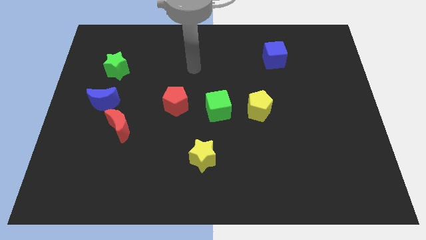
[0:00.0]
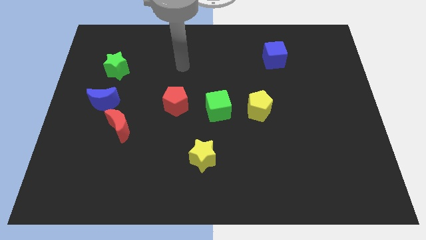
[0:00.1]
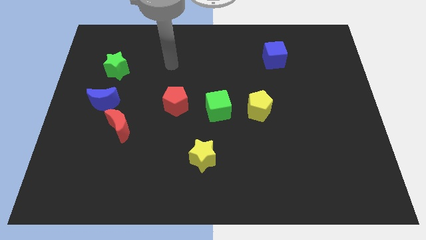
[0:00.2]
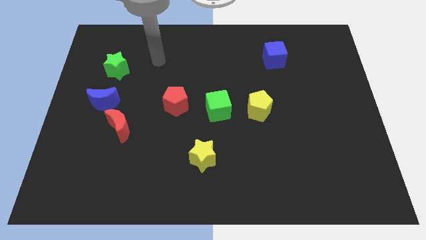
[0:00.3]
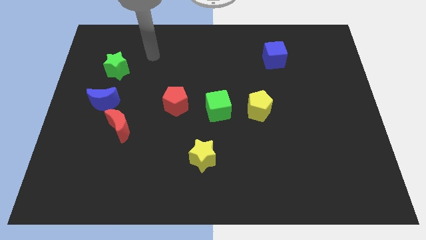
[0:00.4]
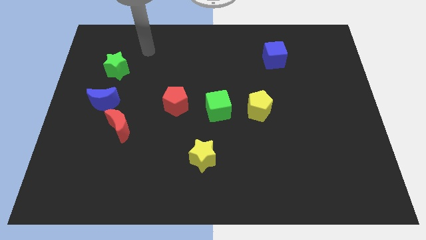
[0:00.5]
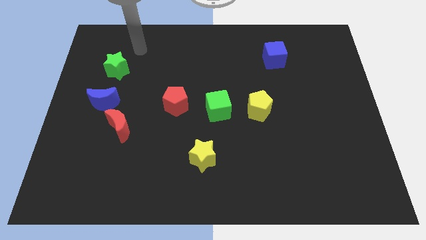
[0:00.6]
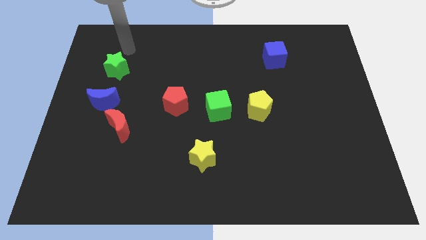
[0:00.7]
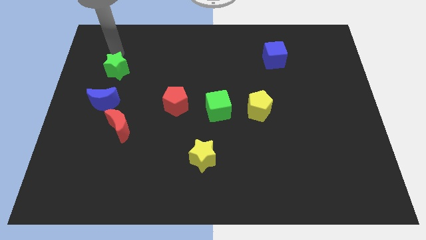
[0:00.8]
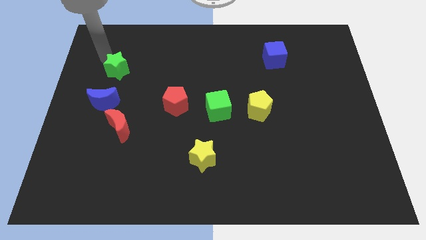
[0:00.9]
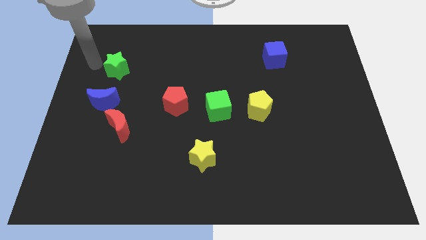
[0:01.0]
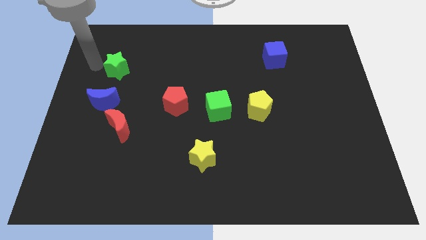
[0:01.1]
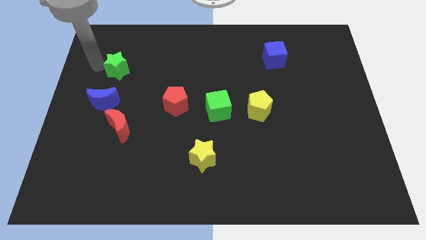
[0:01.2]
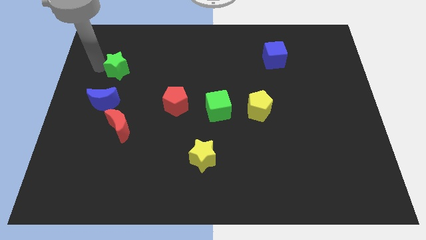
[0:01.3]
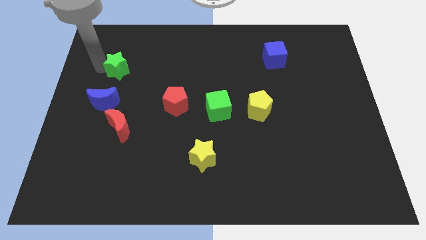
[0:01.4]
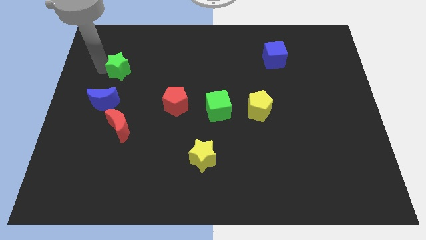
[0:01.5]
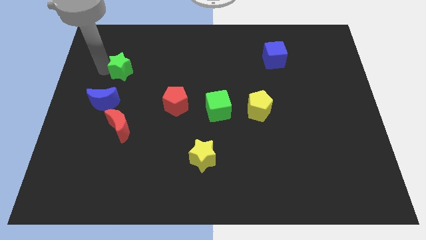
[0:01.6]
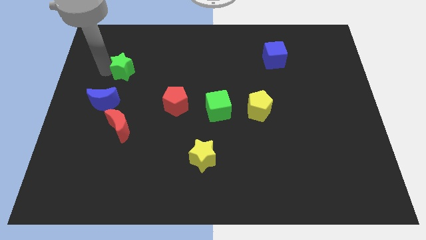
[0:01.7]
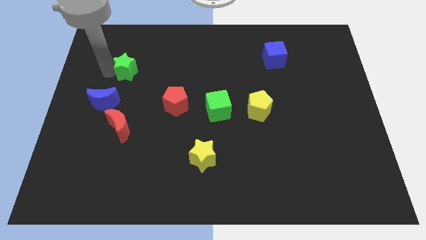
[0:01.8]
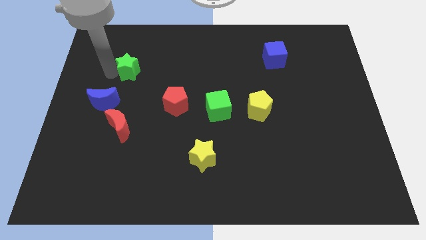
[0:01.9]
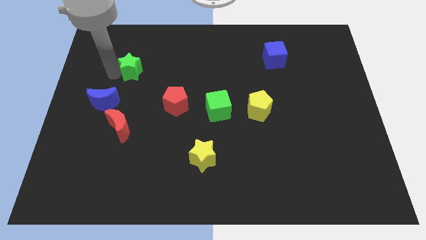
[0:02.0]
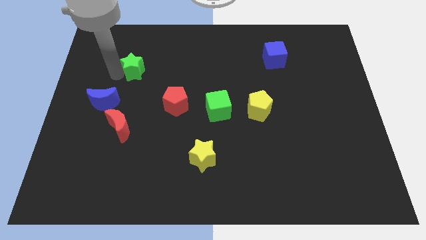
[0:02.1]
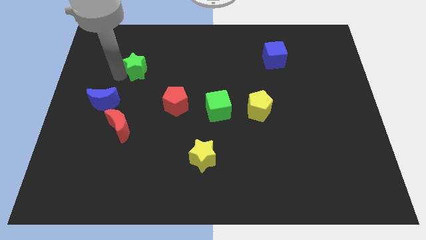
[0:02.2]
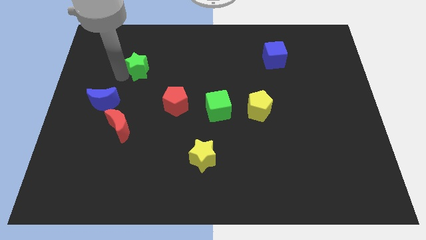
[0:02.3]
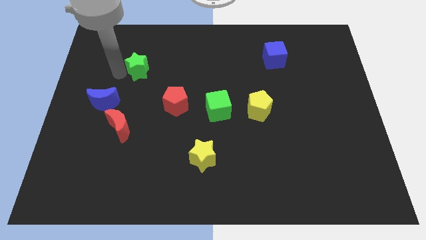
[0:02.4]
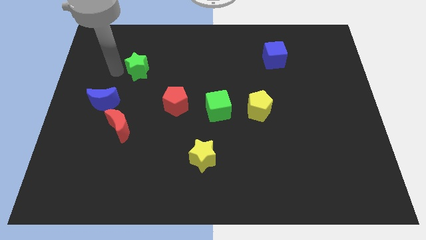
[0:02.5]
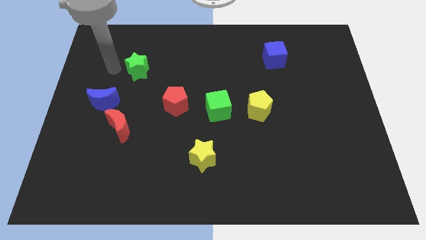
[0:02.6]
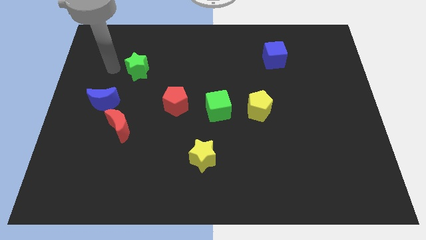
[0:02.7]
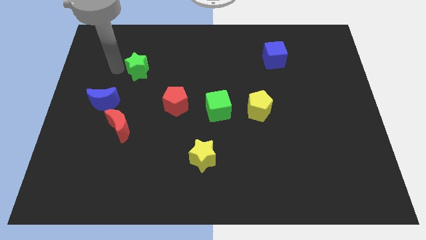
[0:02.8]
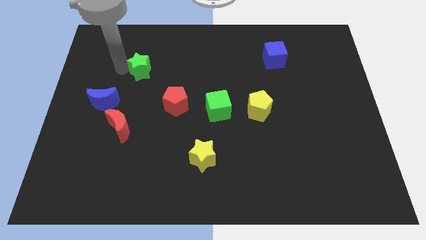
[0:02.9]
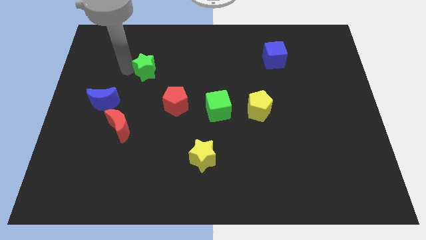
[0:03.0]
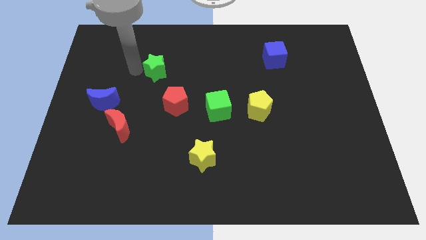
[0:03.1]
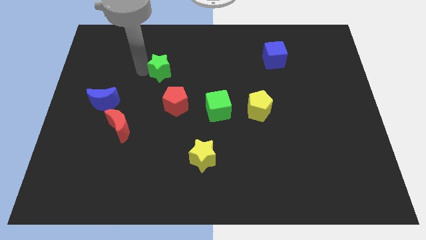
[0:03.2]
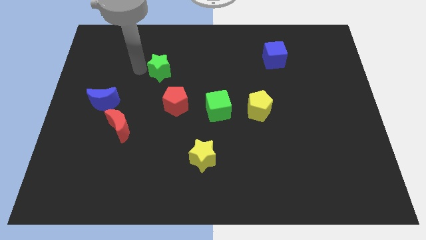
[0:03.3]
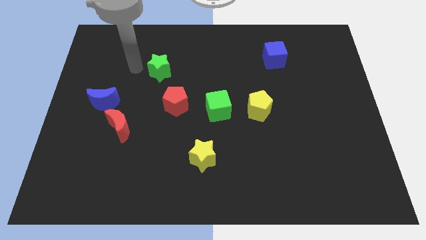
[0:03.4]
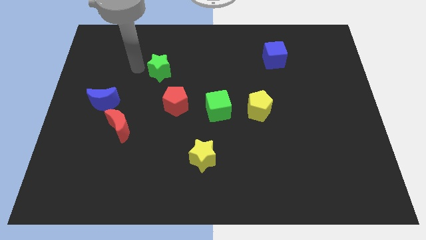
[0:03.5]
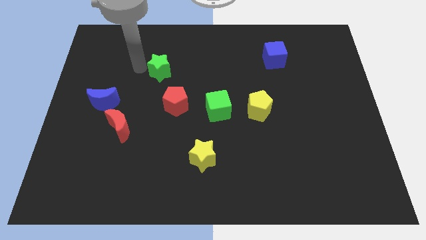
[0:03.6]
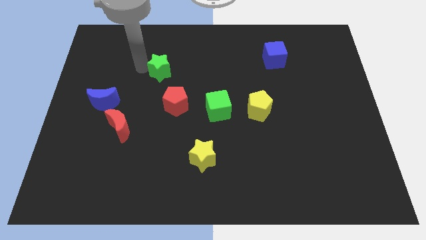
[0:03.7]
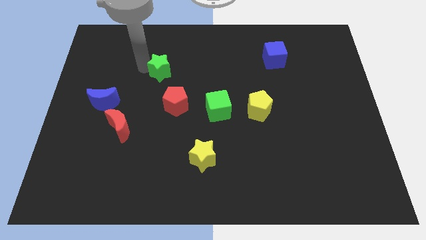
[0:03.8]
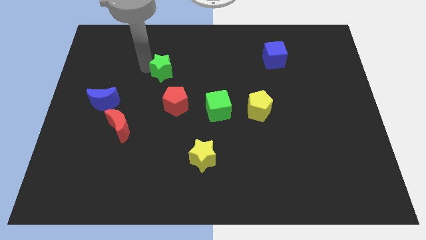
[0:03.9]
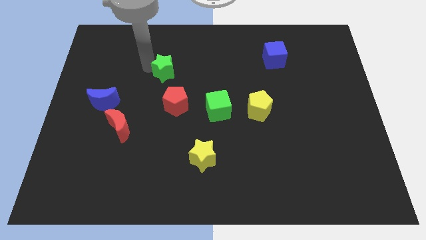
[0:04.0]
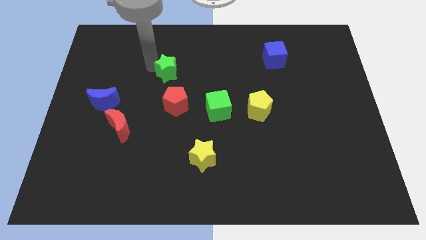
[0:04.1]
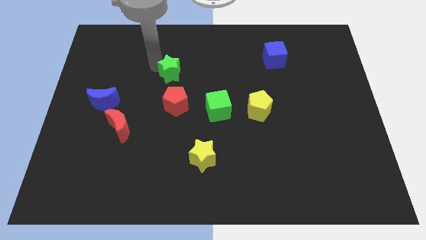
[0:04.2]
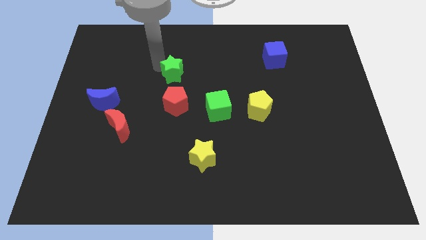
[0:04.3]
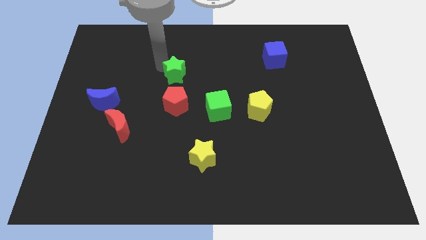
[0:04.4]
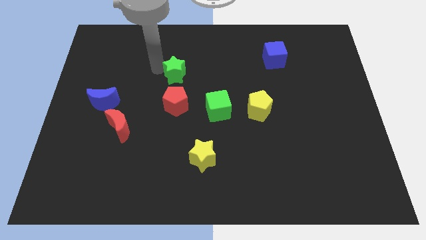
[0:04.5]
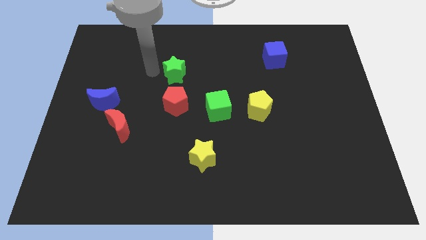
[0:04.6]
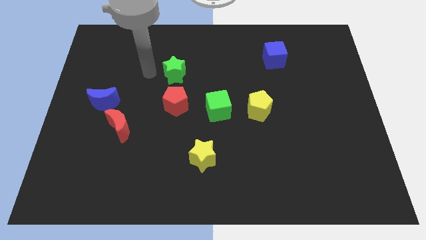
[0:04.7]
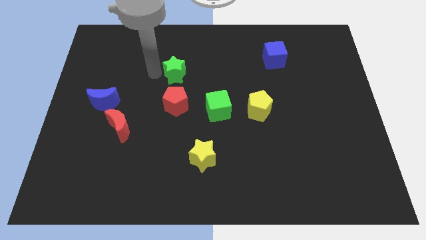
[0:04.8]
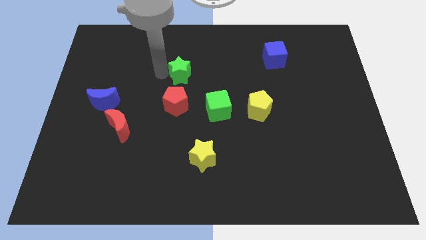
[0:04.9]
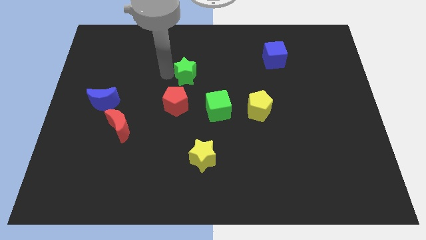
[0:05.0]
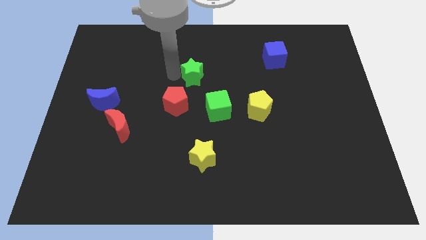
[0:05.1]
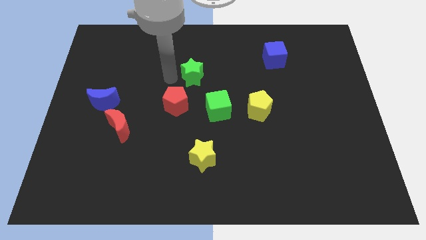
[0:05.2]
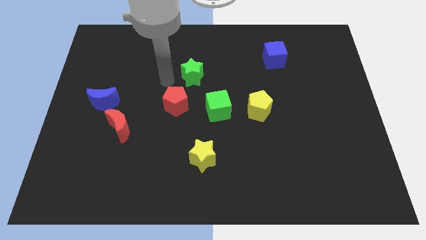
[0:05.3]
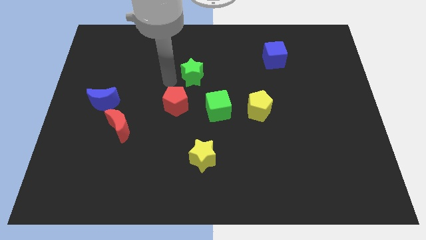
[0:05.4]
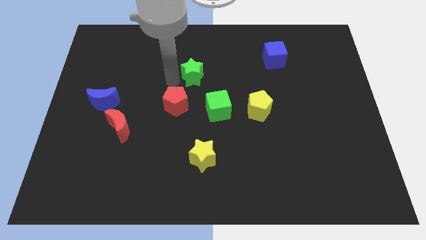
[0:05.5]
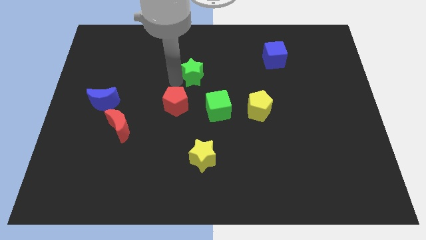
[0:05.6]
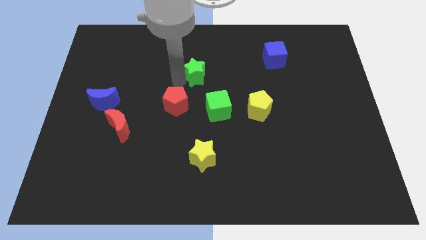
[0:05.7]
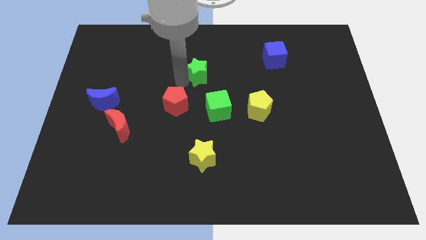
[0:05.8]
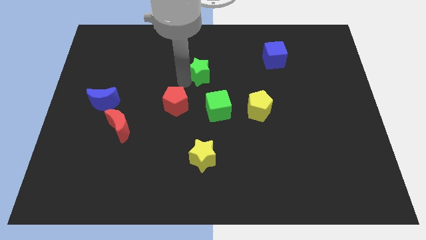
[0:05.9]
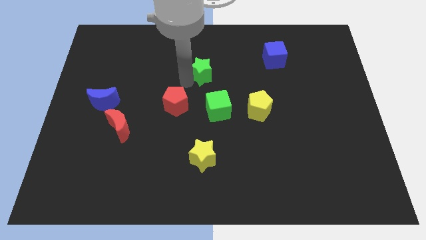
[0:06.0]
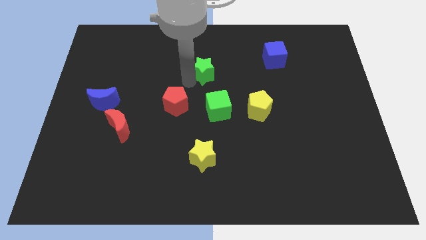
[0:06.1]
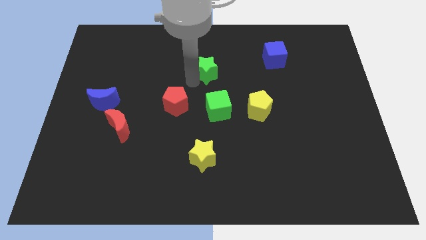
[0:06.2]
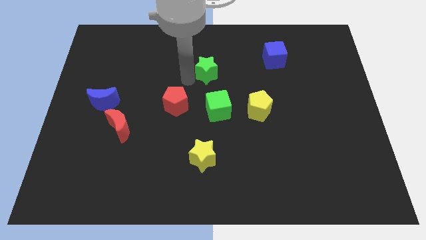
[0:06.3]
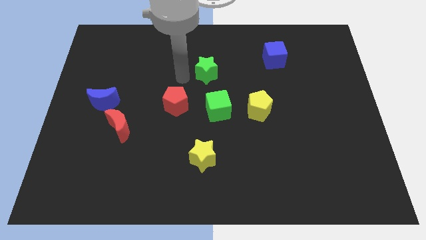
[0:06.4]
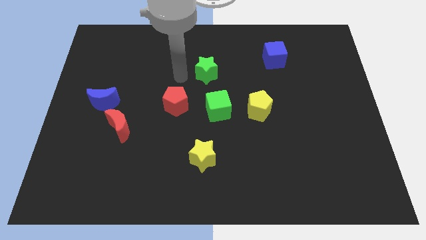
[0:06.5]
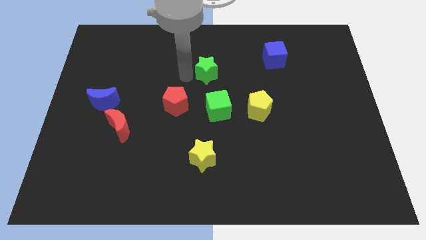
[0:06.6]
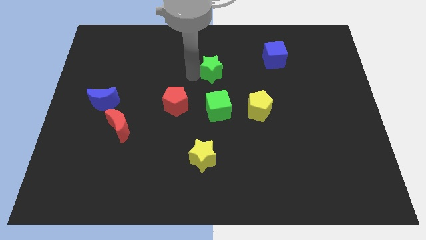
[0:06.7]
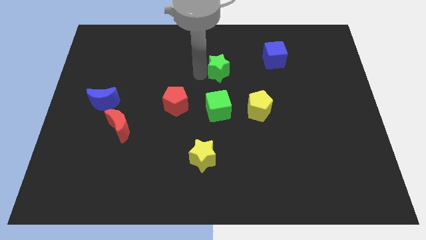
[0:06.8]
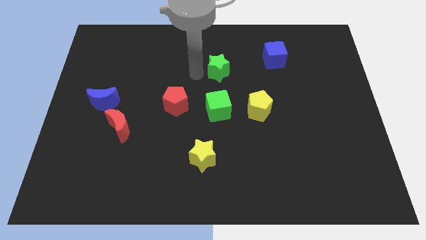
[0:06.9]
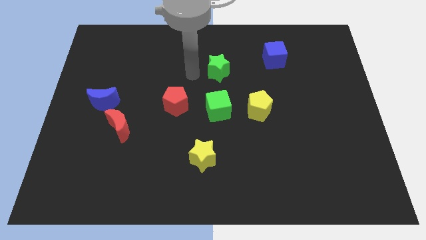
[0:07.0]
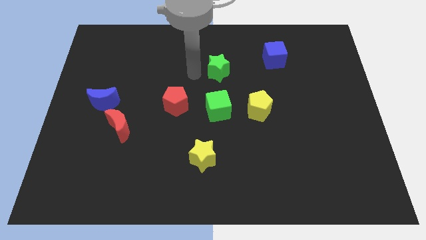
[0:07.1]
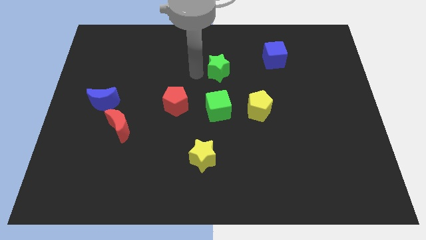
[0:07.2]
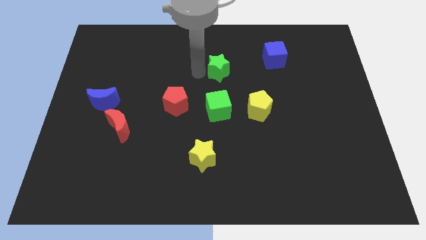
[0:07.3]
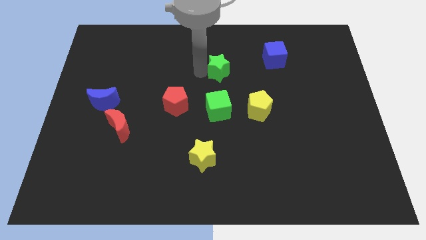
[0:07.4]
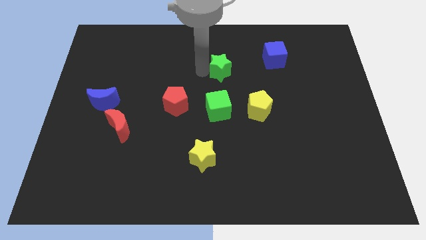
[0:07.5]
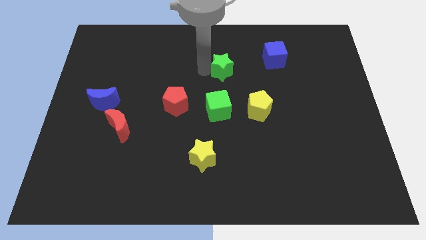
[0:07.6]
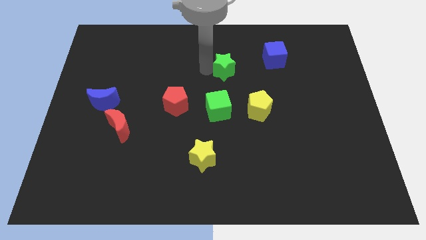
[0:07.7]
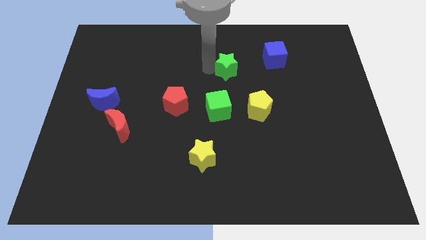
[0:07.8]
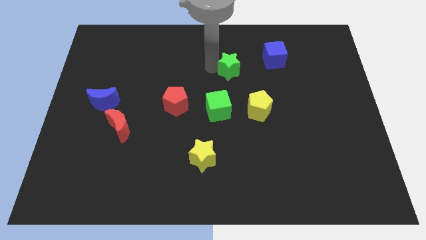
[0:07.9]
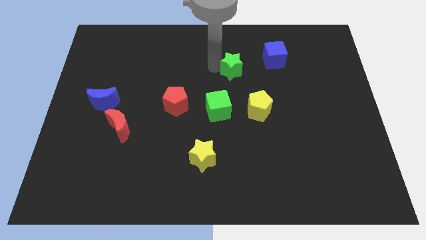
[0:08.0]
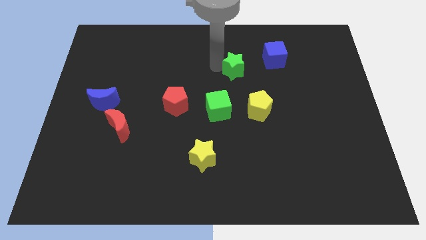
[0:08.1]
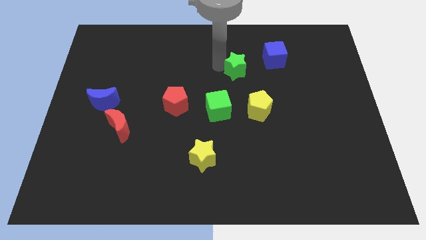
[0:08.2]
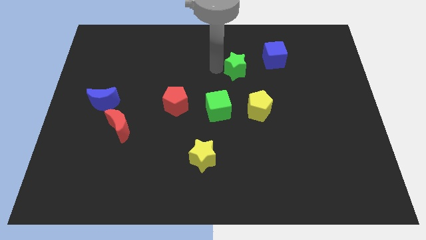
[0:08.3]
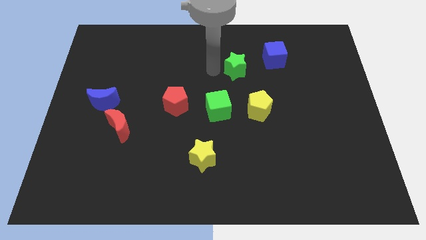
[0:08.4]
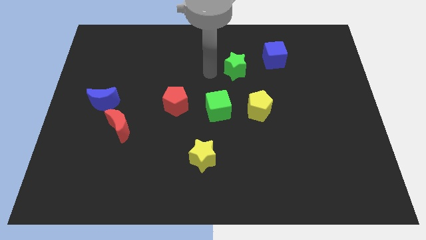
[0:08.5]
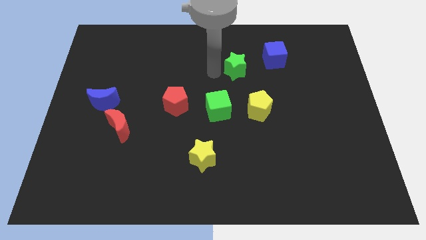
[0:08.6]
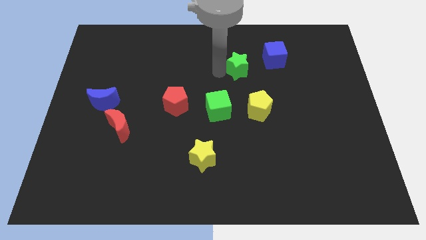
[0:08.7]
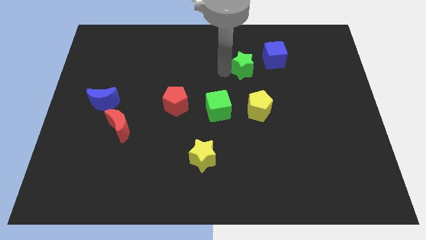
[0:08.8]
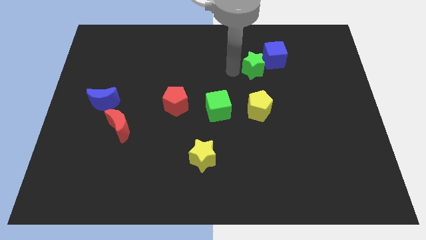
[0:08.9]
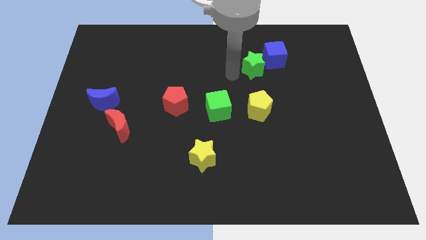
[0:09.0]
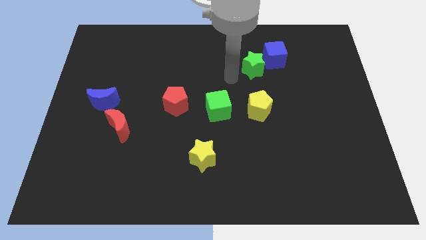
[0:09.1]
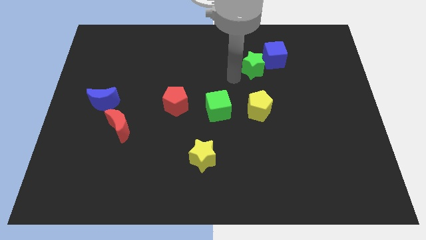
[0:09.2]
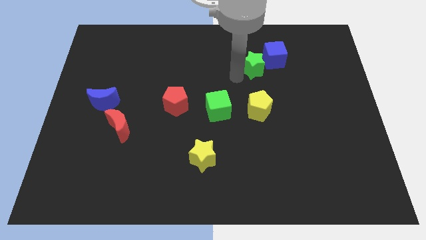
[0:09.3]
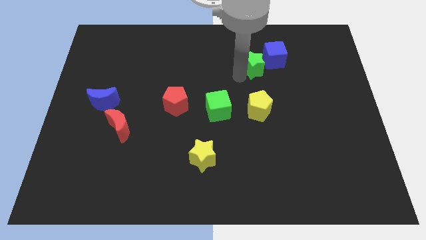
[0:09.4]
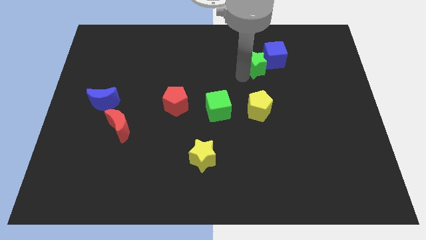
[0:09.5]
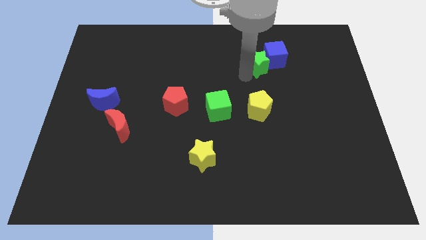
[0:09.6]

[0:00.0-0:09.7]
slide the green star close to the blue cube
